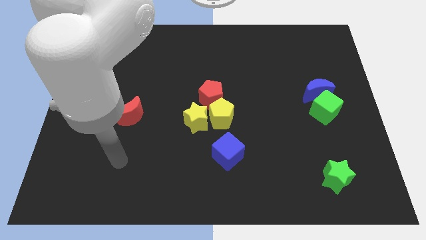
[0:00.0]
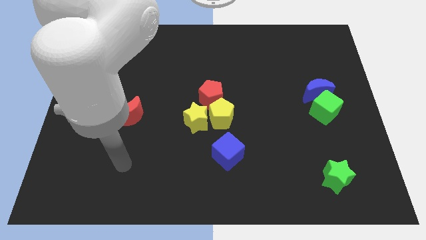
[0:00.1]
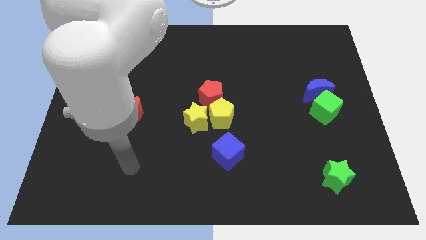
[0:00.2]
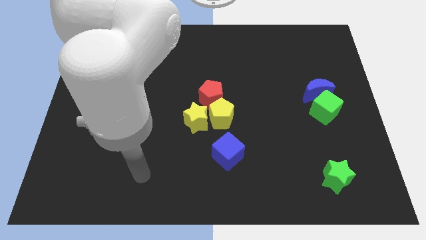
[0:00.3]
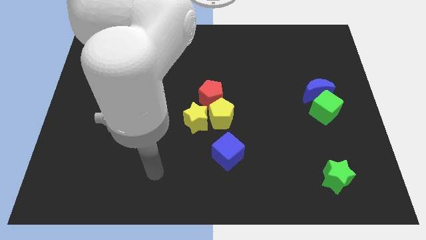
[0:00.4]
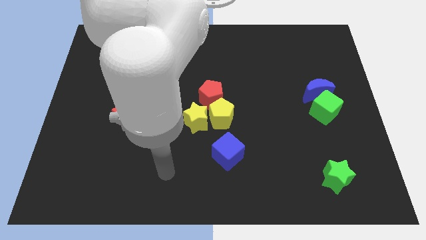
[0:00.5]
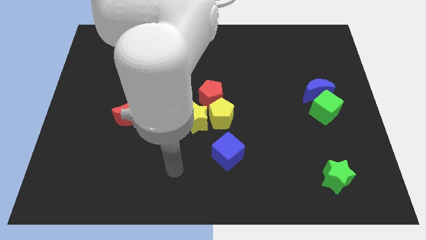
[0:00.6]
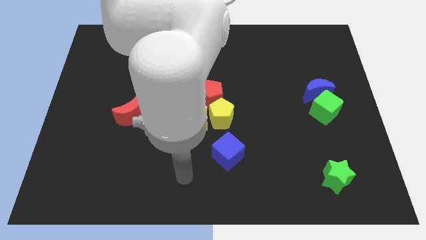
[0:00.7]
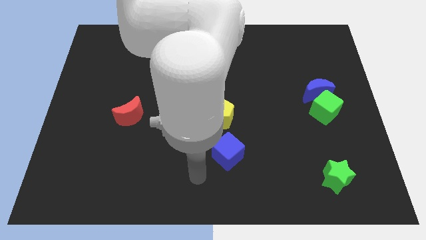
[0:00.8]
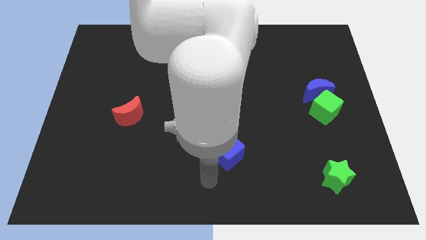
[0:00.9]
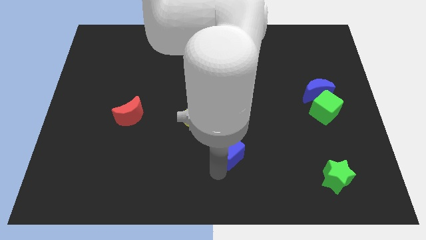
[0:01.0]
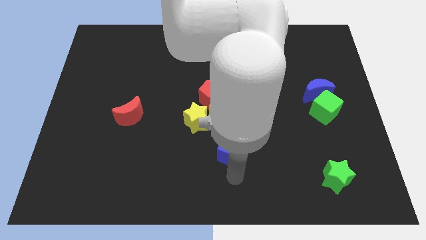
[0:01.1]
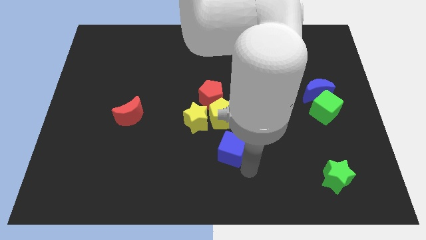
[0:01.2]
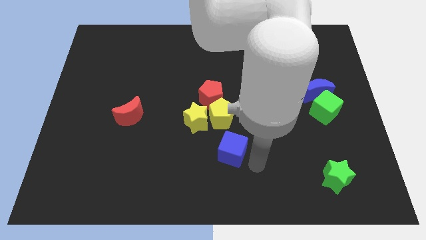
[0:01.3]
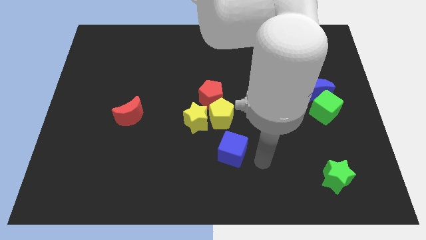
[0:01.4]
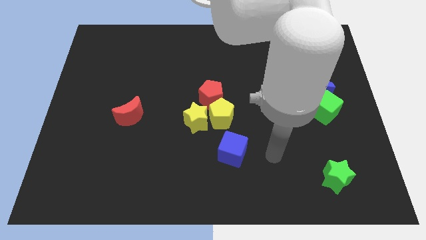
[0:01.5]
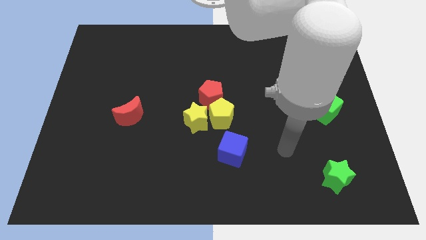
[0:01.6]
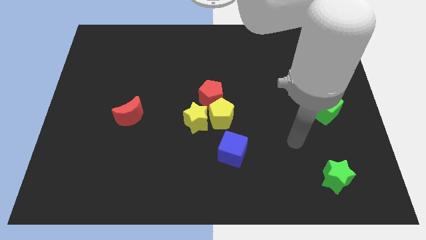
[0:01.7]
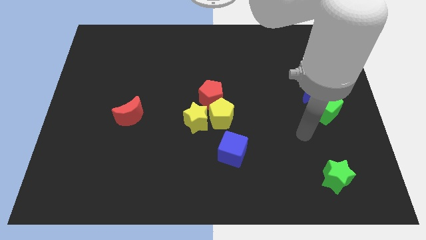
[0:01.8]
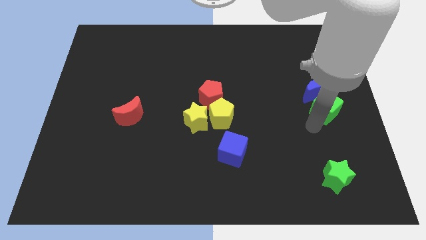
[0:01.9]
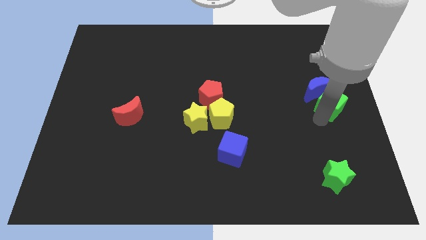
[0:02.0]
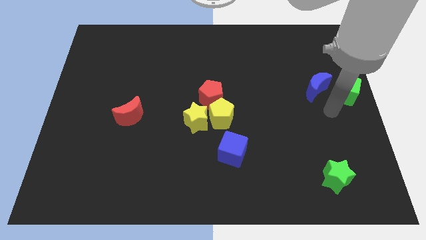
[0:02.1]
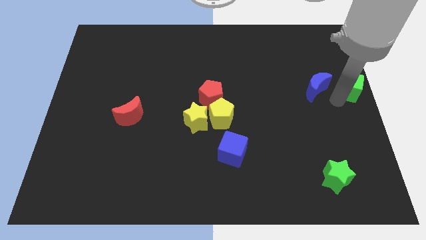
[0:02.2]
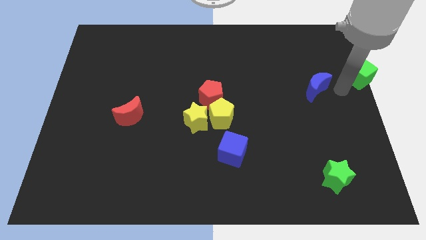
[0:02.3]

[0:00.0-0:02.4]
move the blue moon away from the green cube

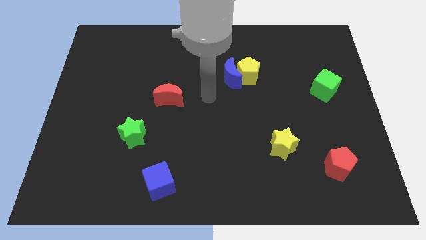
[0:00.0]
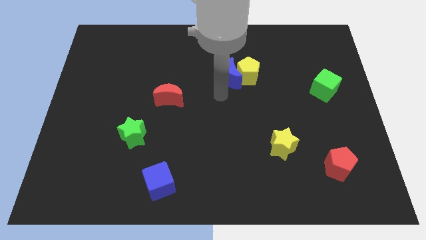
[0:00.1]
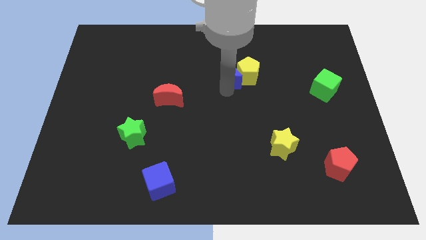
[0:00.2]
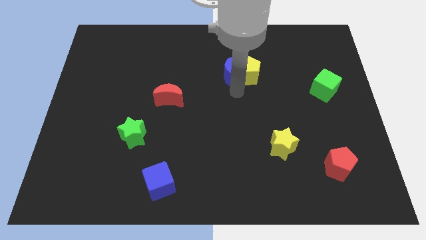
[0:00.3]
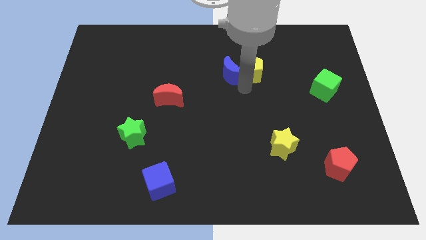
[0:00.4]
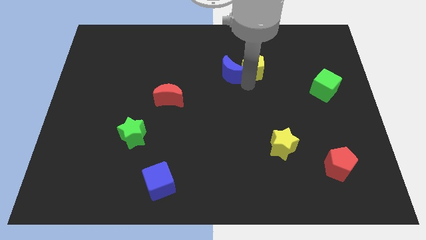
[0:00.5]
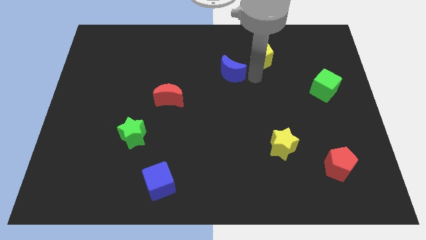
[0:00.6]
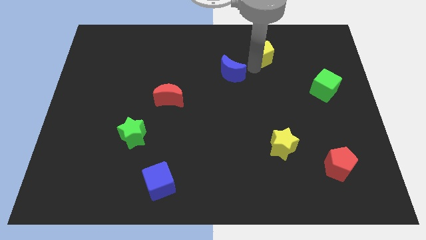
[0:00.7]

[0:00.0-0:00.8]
pull the blue moon apart from the yellow pentagon

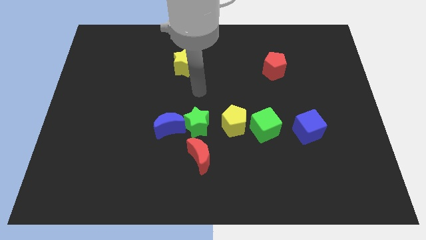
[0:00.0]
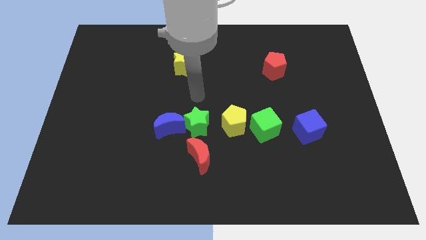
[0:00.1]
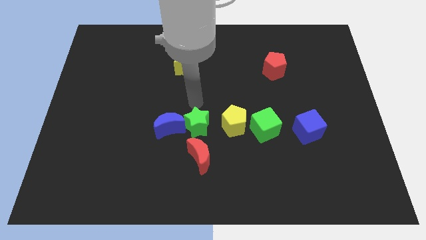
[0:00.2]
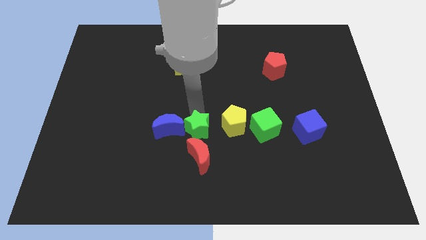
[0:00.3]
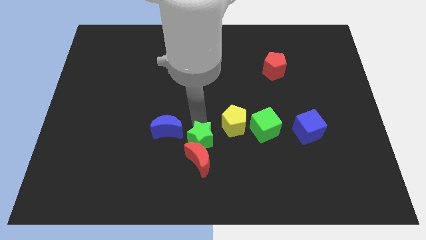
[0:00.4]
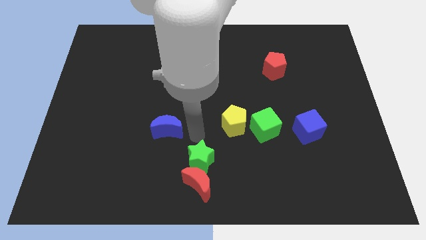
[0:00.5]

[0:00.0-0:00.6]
pull the blue moon apart from the green star

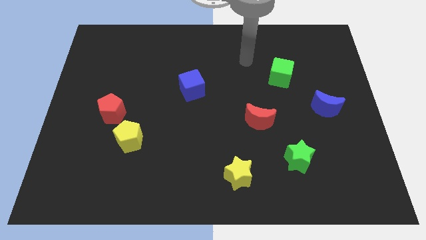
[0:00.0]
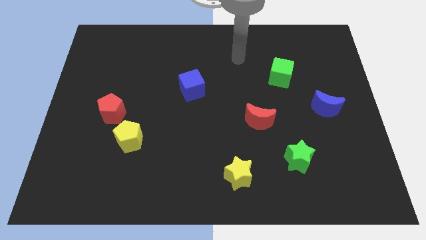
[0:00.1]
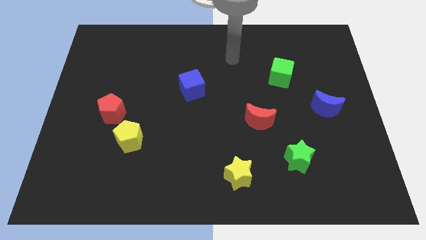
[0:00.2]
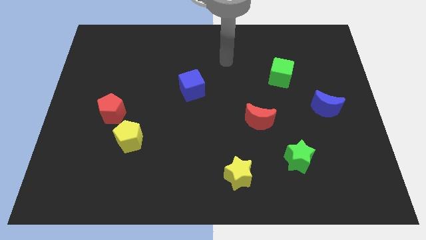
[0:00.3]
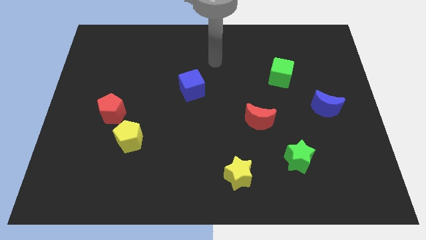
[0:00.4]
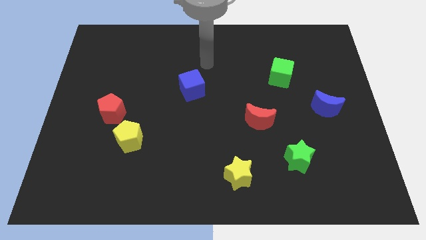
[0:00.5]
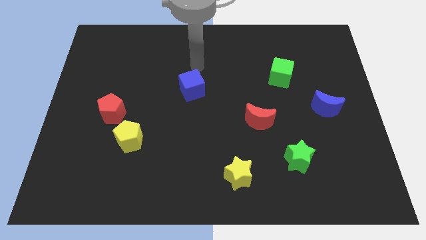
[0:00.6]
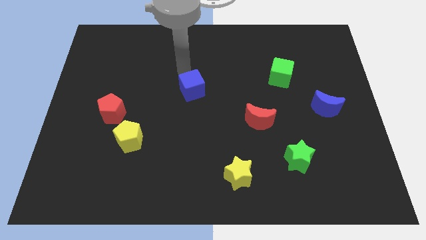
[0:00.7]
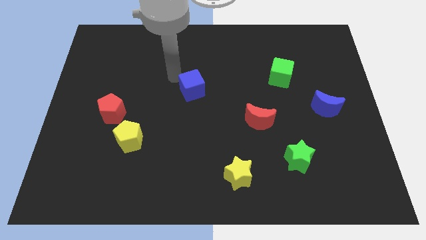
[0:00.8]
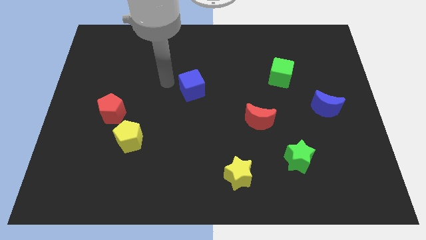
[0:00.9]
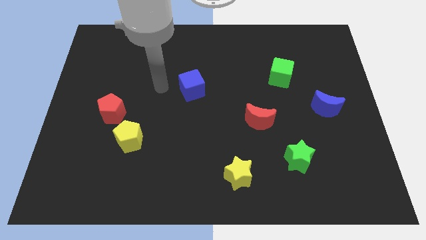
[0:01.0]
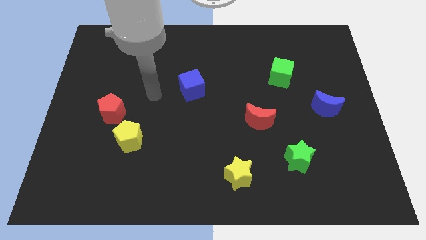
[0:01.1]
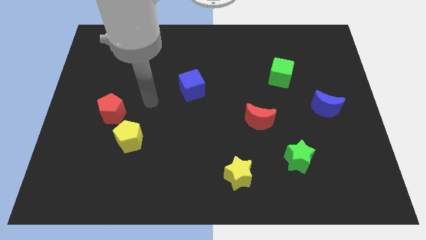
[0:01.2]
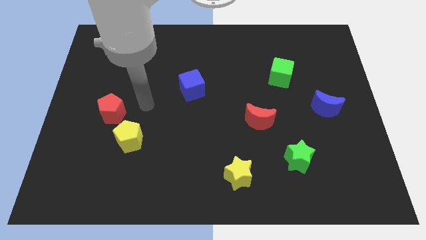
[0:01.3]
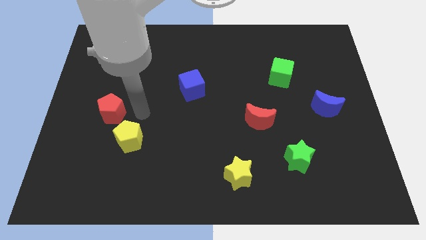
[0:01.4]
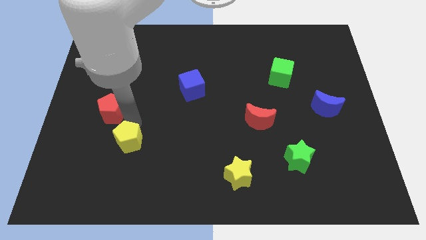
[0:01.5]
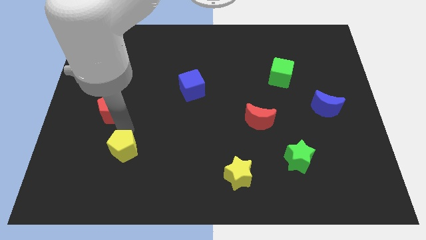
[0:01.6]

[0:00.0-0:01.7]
separate the red pentagon from the yellow pentagon

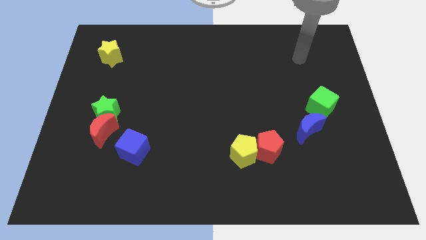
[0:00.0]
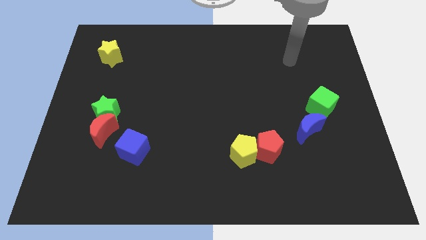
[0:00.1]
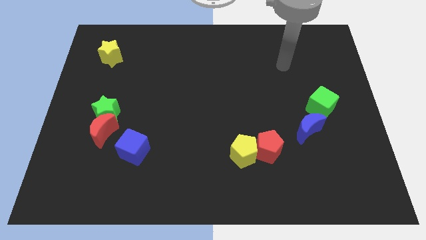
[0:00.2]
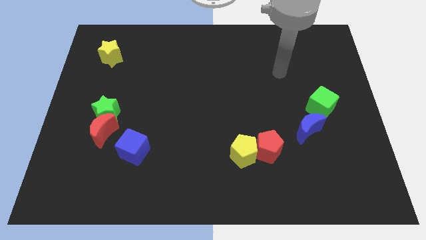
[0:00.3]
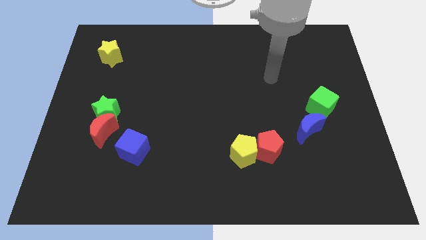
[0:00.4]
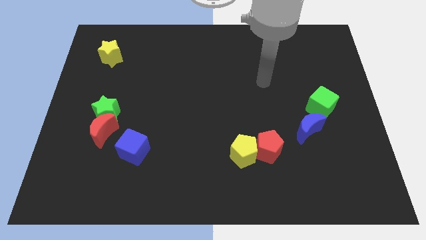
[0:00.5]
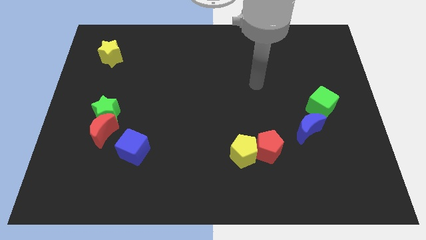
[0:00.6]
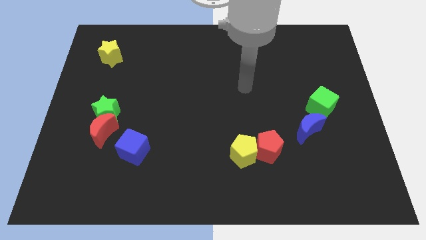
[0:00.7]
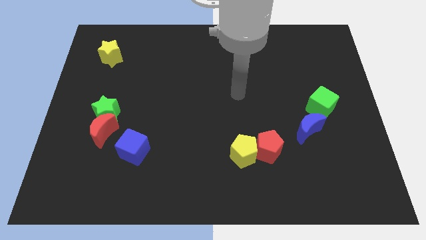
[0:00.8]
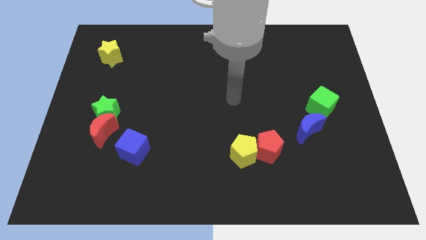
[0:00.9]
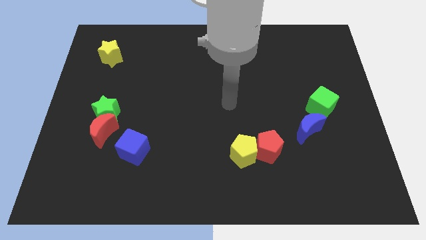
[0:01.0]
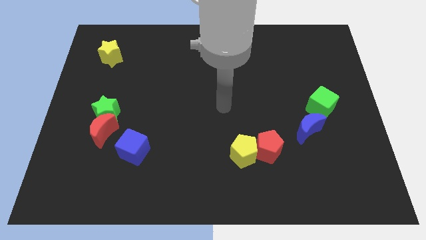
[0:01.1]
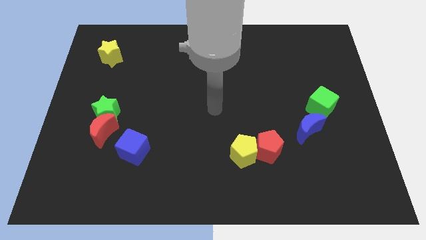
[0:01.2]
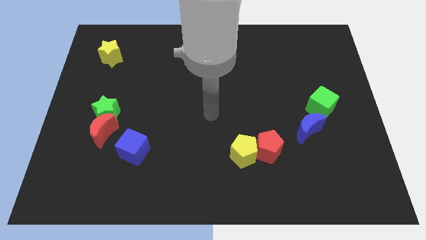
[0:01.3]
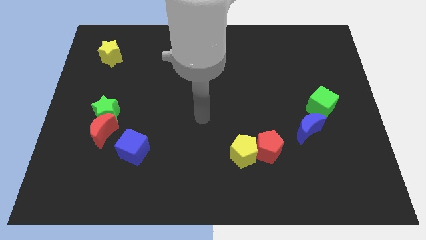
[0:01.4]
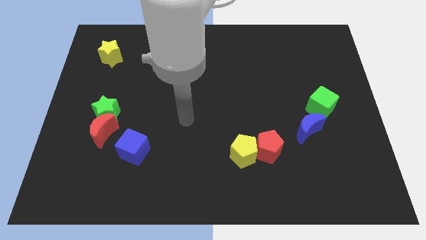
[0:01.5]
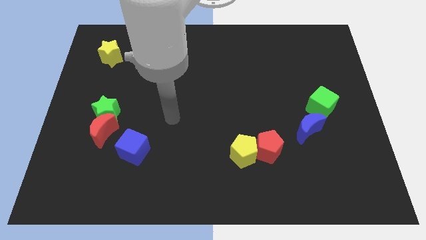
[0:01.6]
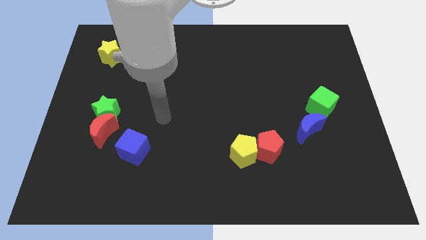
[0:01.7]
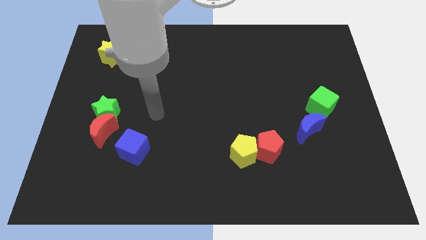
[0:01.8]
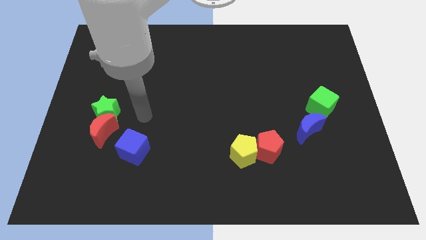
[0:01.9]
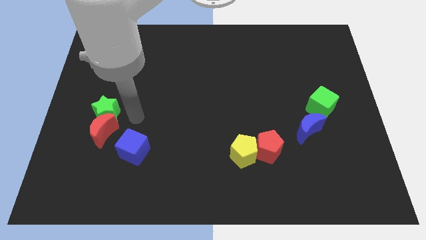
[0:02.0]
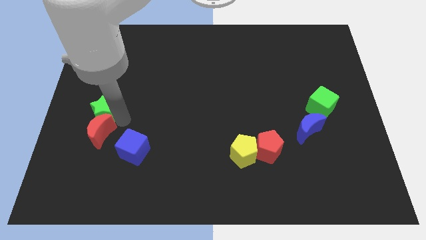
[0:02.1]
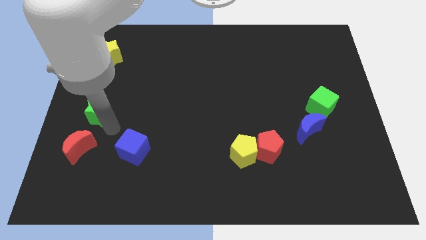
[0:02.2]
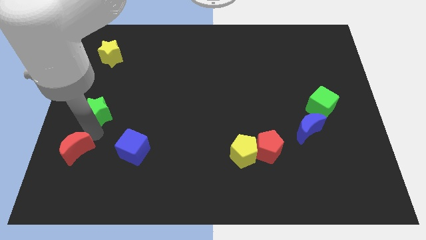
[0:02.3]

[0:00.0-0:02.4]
separate the green star from the red moon

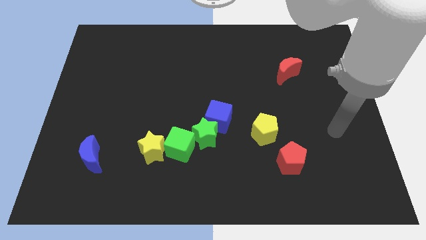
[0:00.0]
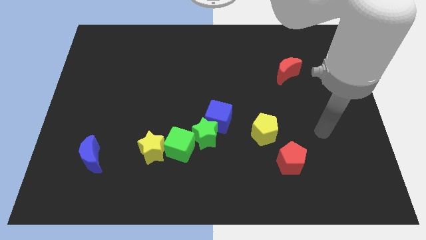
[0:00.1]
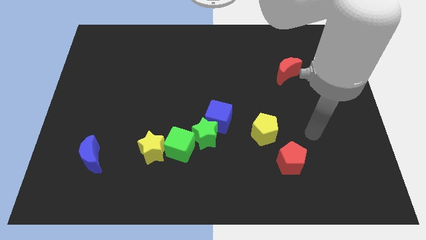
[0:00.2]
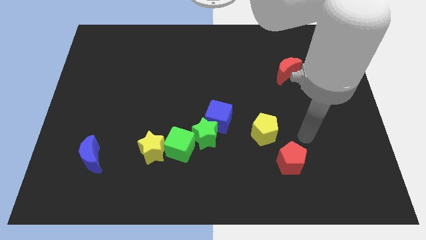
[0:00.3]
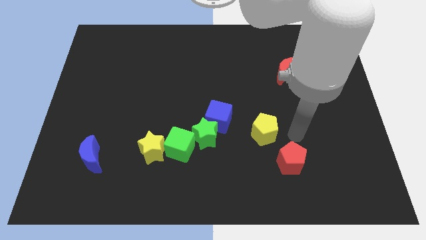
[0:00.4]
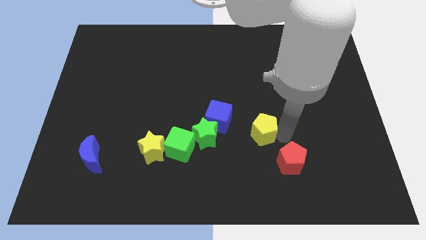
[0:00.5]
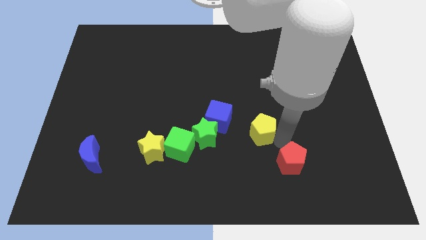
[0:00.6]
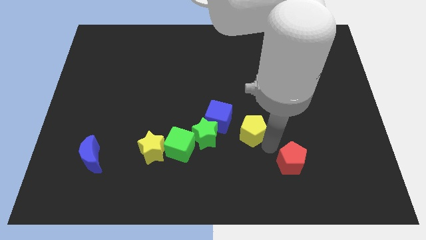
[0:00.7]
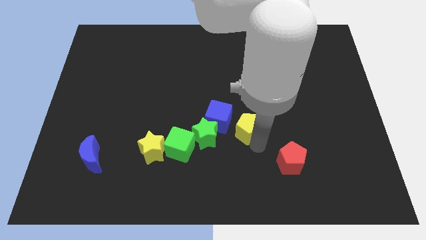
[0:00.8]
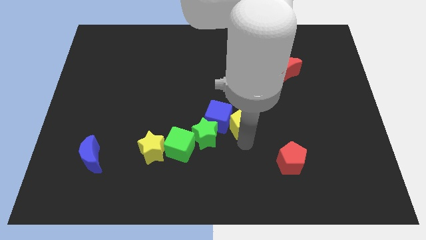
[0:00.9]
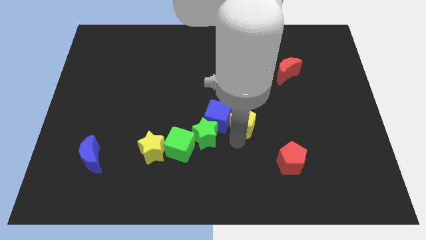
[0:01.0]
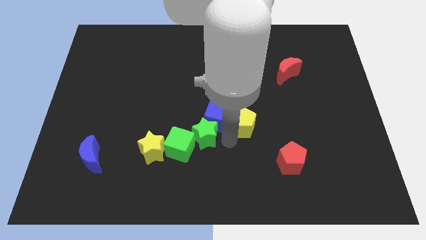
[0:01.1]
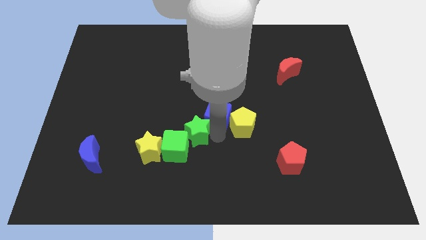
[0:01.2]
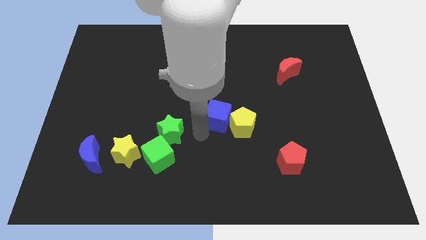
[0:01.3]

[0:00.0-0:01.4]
pull the blue cube apart from the green star
